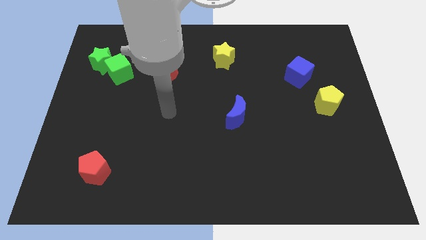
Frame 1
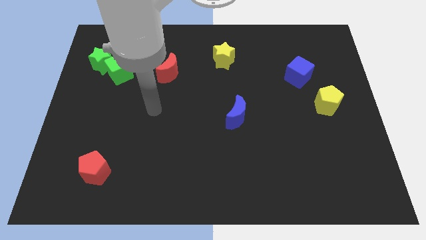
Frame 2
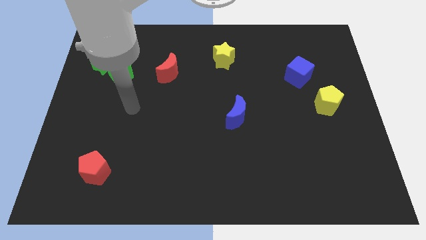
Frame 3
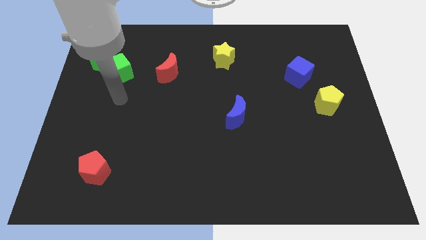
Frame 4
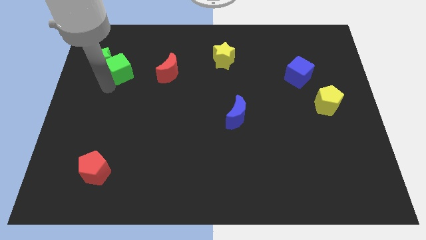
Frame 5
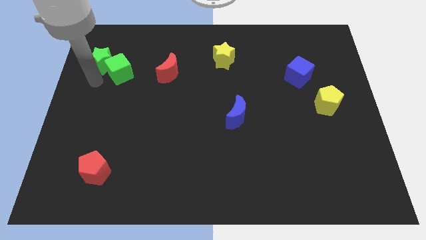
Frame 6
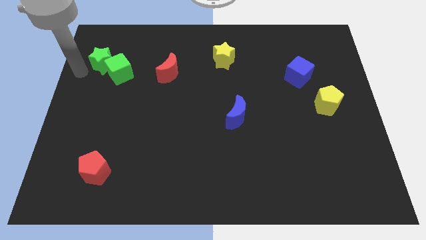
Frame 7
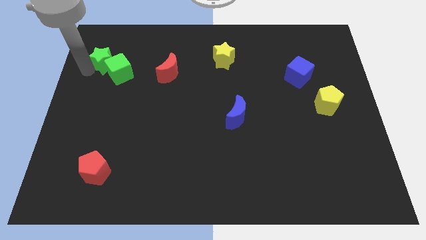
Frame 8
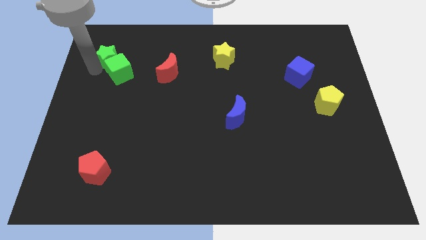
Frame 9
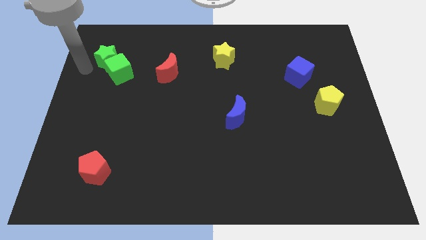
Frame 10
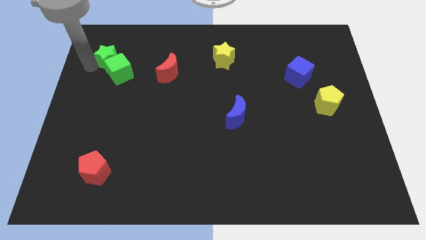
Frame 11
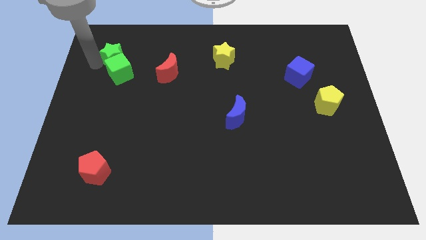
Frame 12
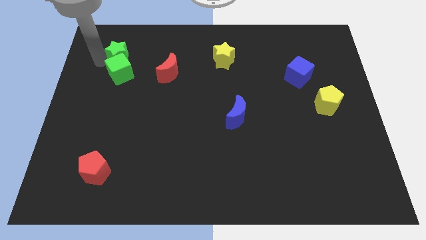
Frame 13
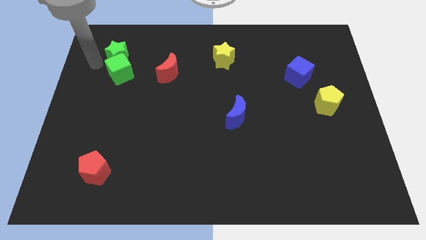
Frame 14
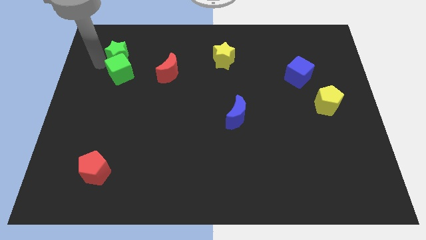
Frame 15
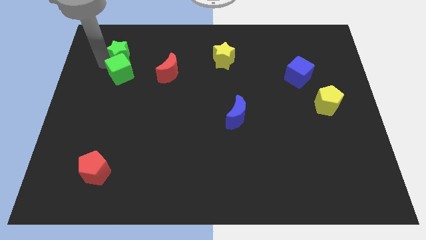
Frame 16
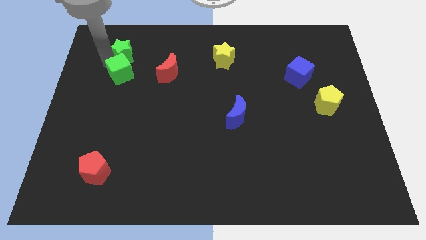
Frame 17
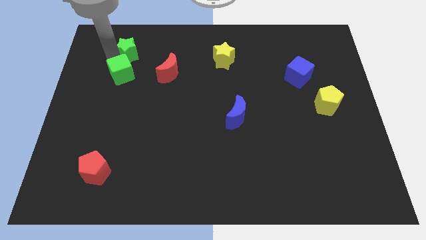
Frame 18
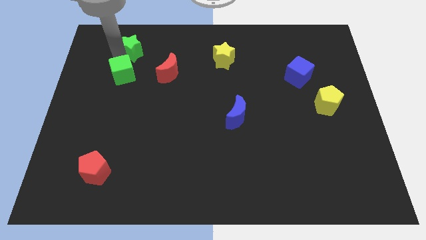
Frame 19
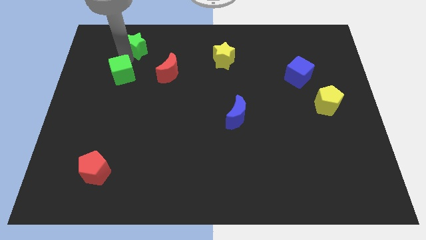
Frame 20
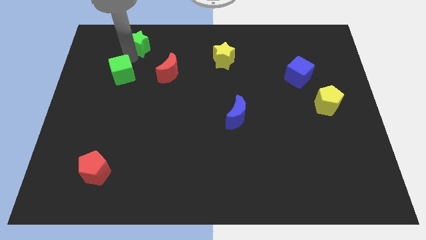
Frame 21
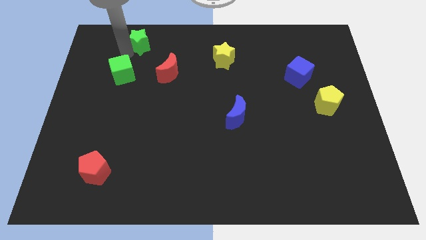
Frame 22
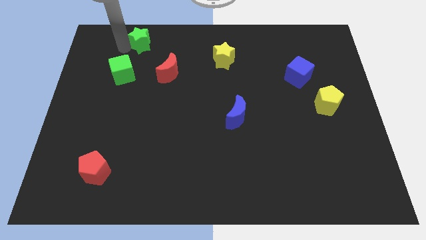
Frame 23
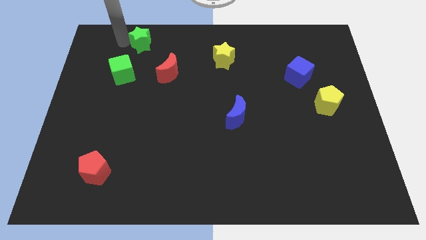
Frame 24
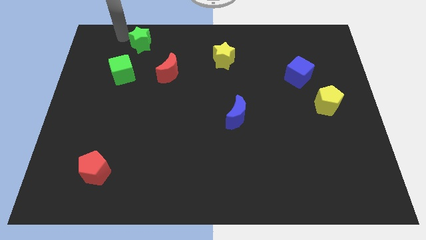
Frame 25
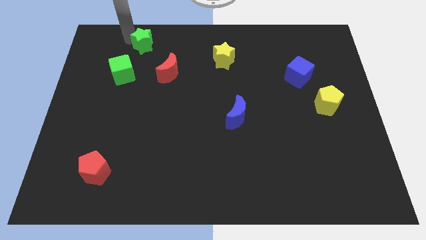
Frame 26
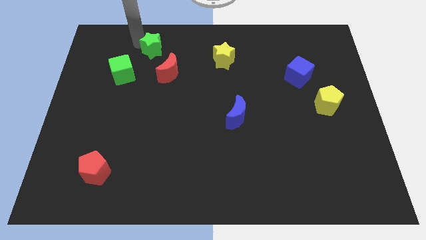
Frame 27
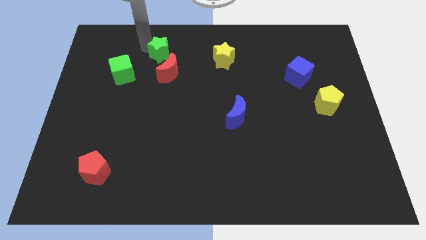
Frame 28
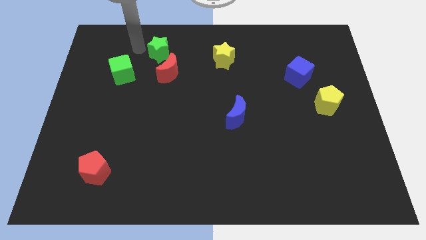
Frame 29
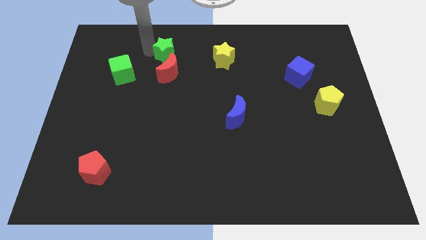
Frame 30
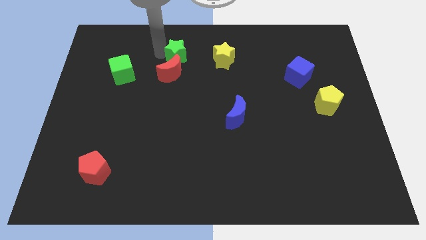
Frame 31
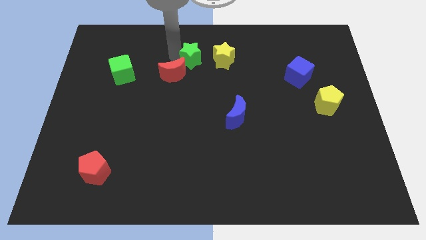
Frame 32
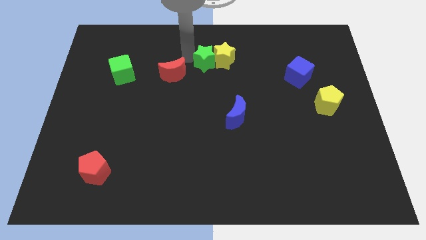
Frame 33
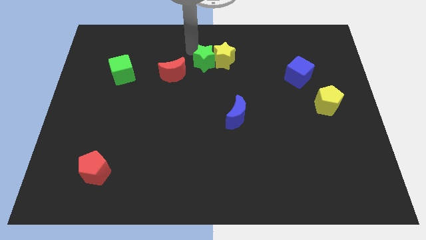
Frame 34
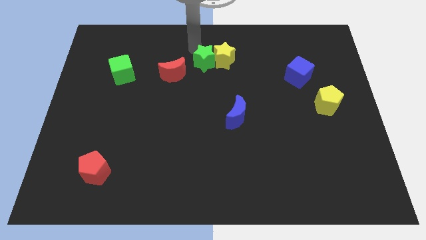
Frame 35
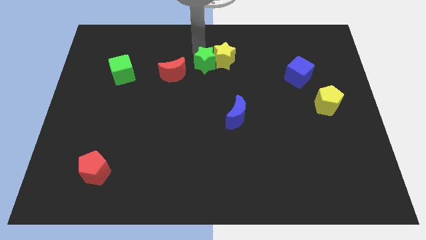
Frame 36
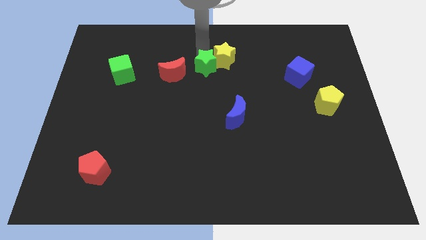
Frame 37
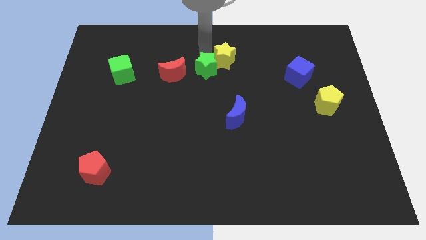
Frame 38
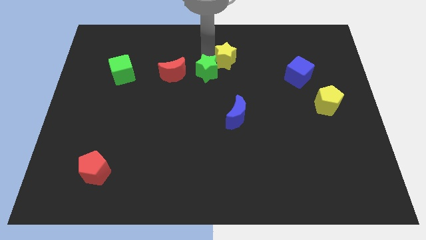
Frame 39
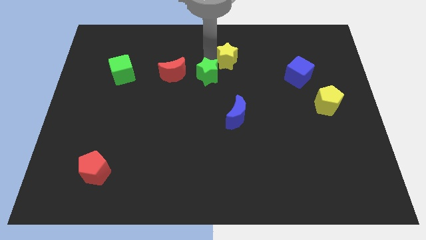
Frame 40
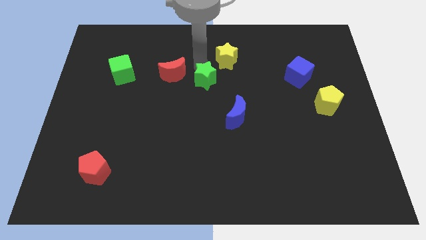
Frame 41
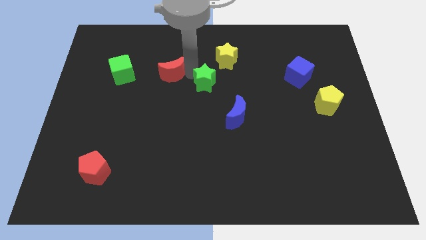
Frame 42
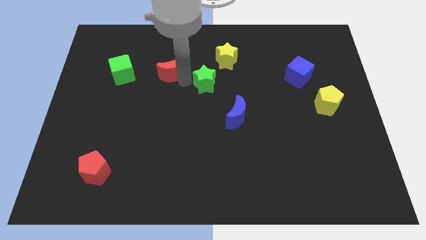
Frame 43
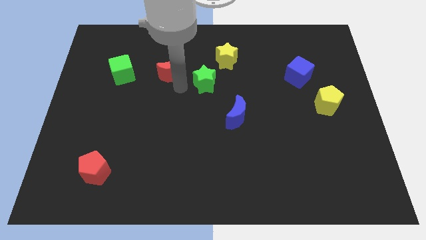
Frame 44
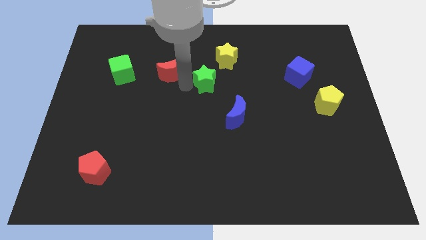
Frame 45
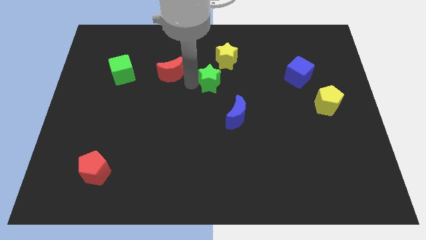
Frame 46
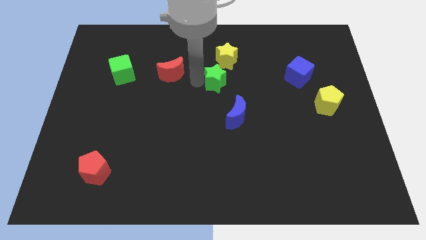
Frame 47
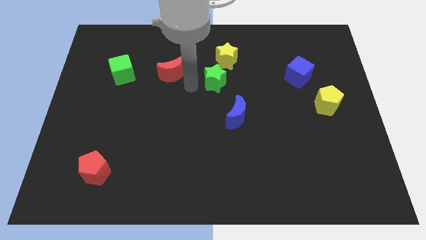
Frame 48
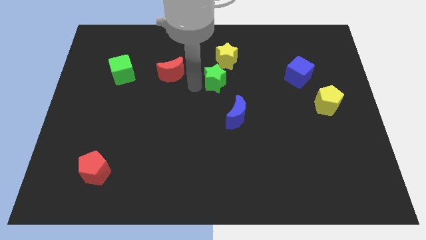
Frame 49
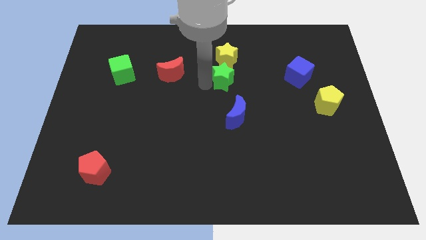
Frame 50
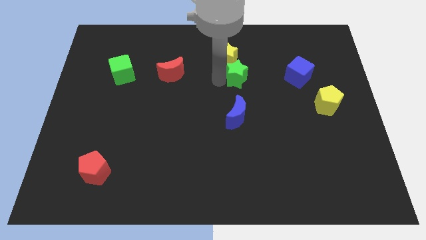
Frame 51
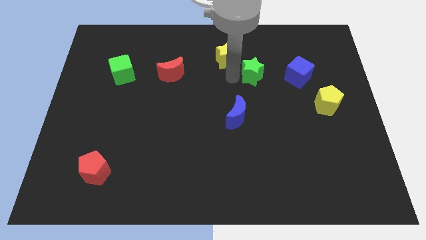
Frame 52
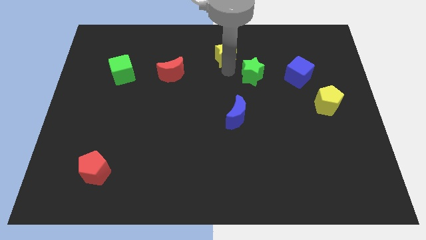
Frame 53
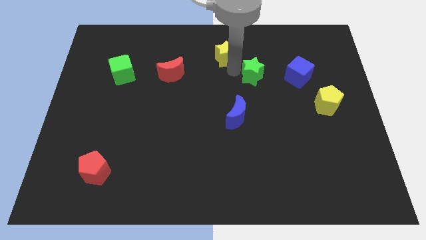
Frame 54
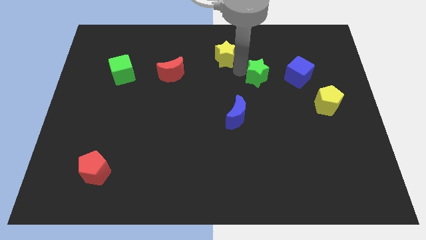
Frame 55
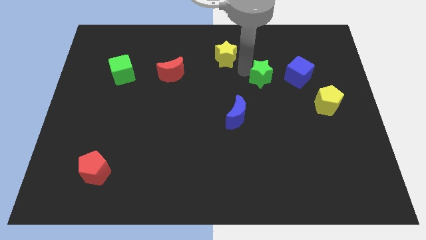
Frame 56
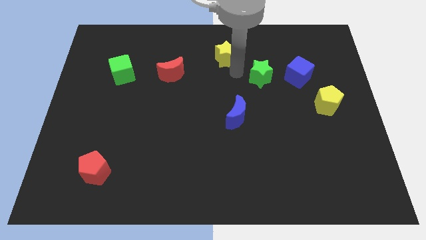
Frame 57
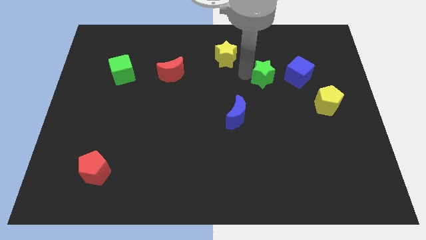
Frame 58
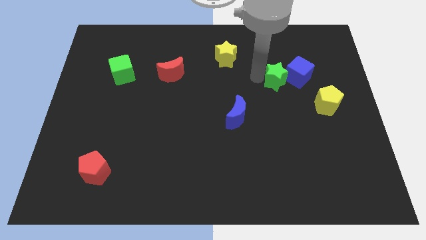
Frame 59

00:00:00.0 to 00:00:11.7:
move the green star next to the blue cube

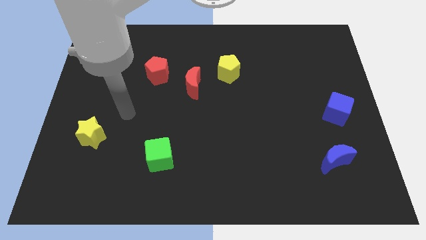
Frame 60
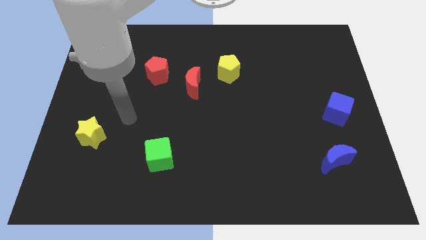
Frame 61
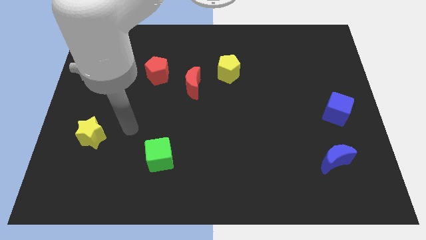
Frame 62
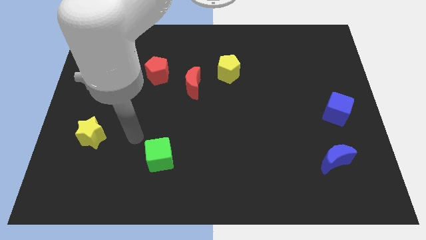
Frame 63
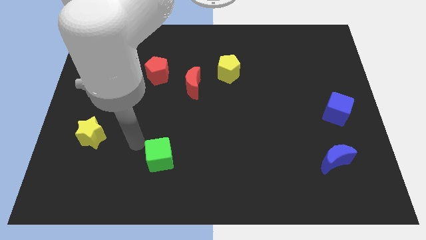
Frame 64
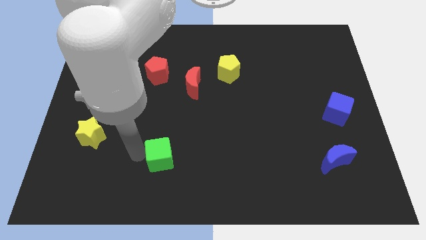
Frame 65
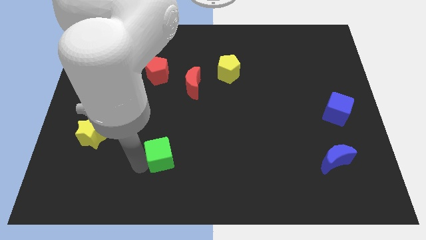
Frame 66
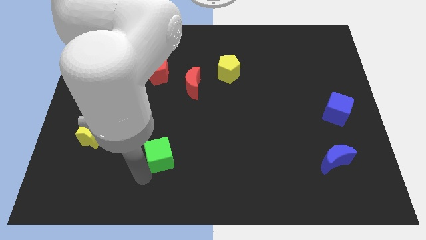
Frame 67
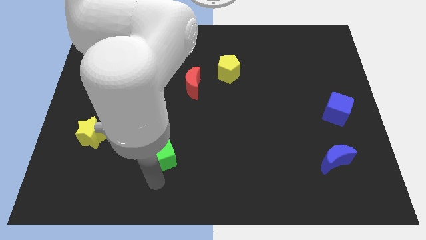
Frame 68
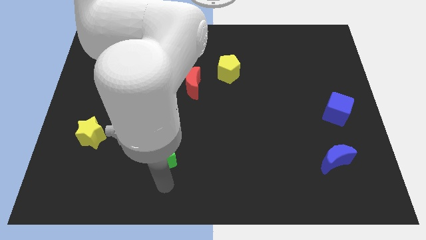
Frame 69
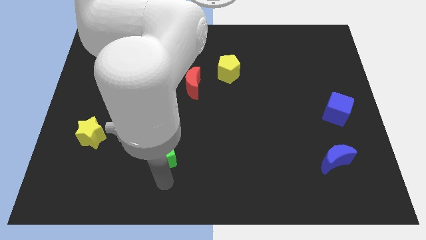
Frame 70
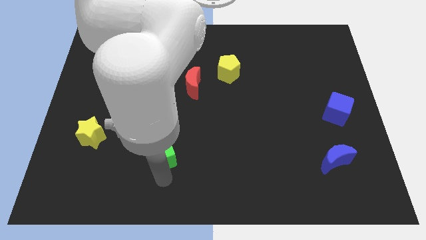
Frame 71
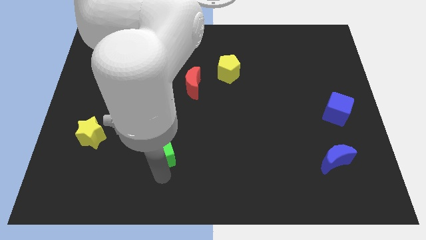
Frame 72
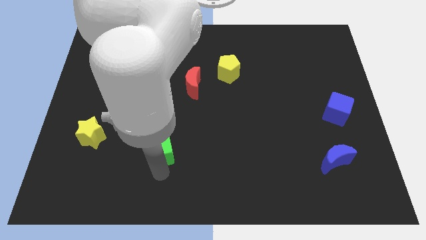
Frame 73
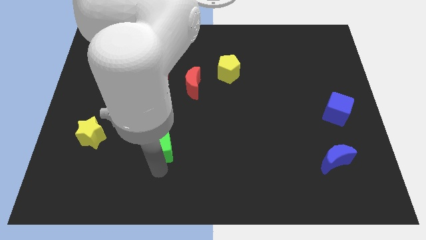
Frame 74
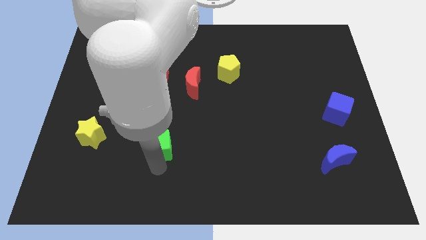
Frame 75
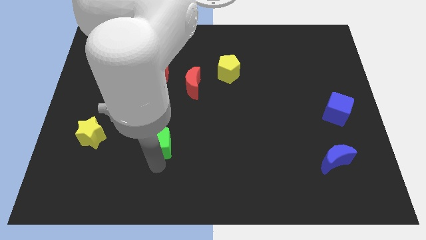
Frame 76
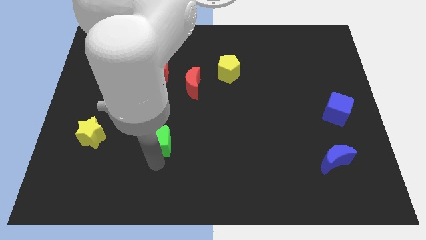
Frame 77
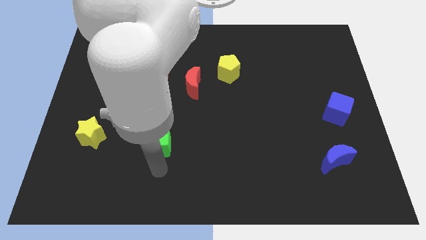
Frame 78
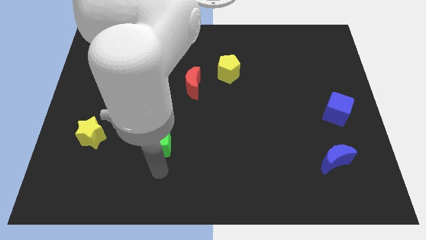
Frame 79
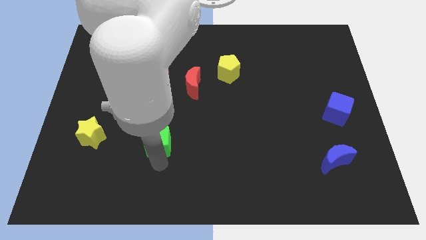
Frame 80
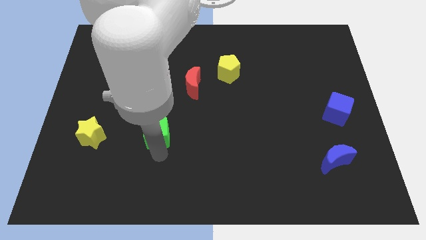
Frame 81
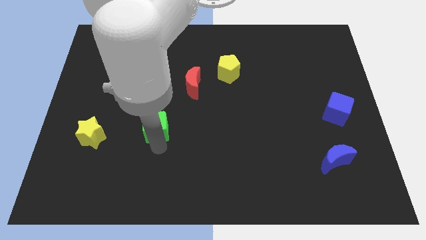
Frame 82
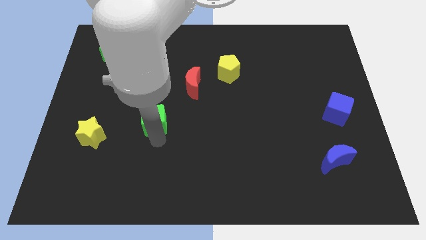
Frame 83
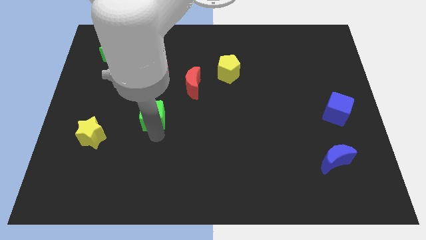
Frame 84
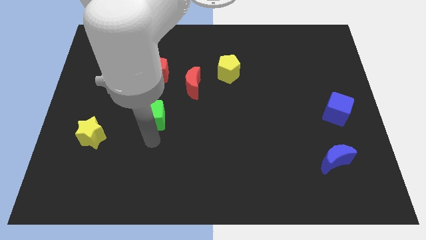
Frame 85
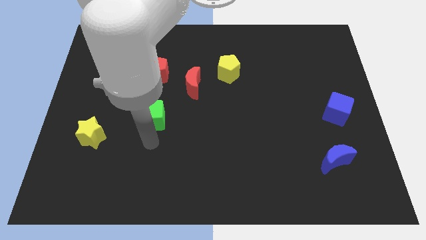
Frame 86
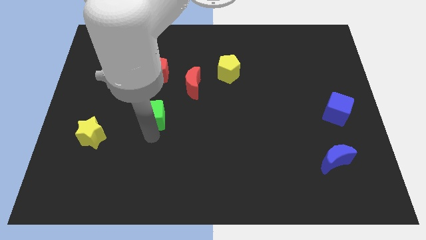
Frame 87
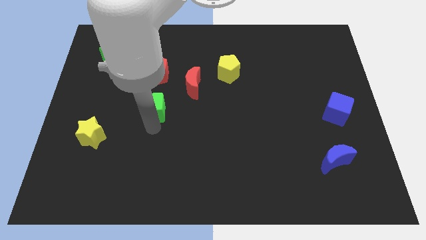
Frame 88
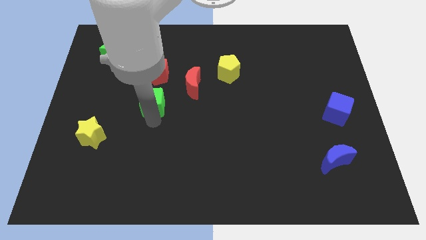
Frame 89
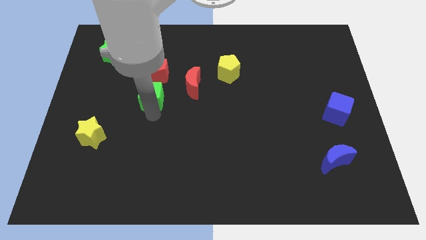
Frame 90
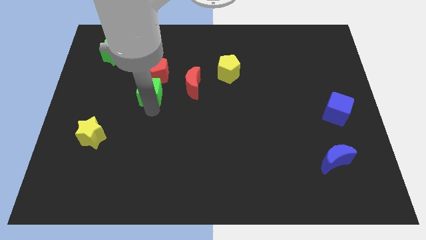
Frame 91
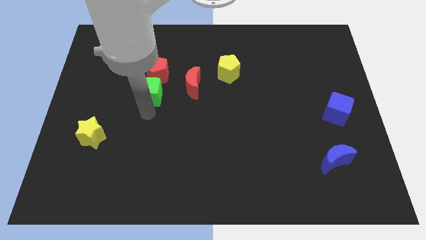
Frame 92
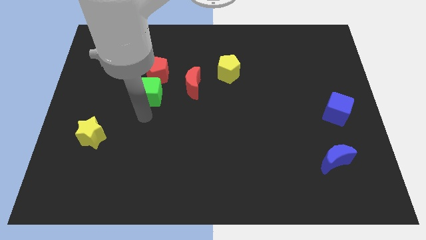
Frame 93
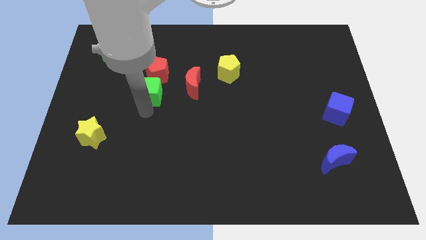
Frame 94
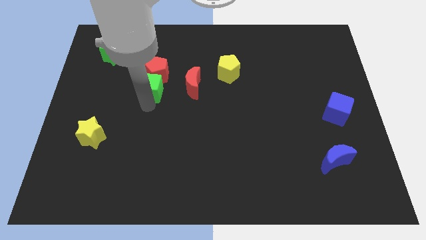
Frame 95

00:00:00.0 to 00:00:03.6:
slide the green cube to the red pentagon
